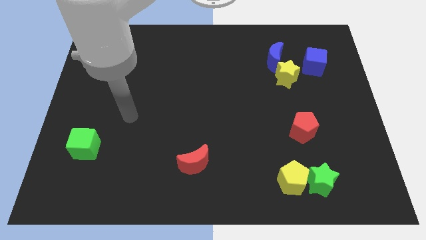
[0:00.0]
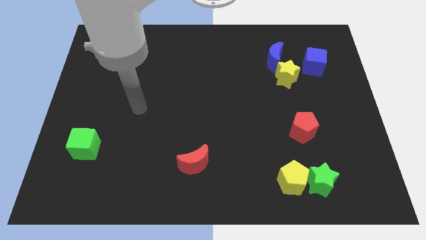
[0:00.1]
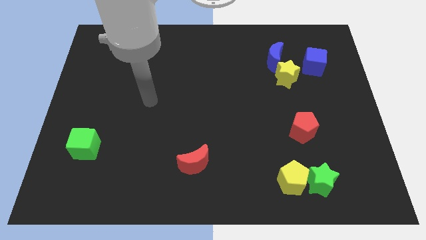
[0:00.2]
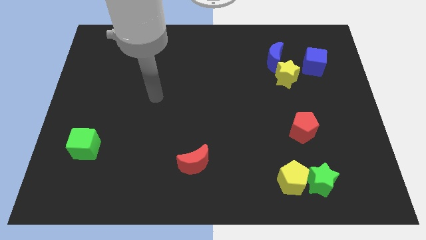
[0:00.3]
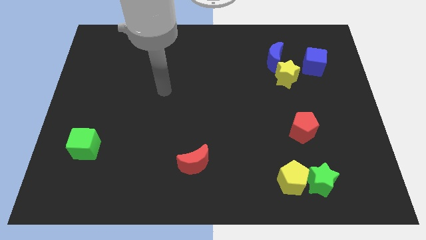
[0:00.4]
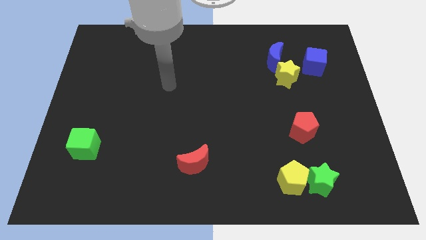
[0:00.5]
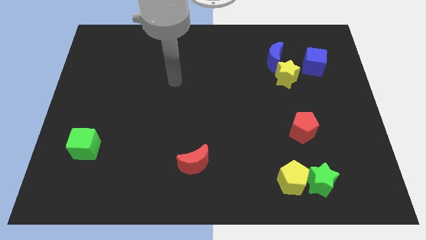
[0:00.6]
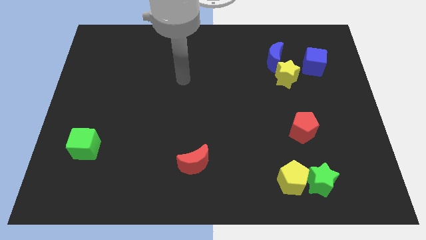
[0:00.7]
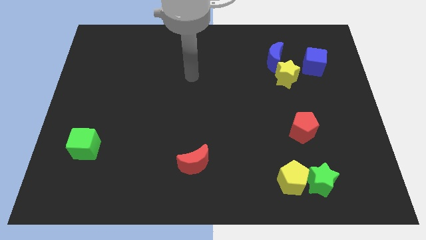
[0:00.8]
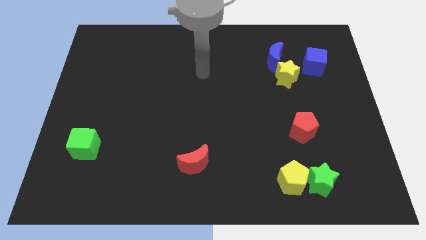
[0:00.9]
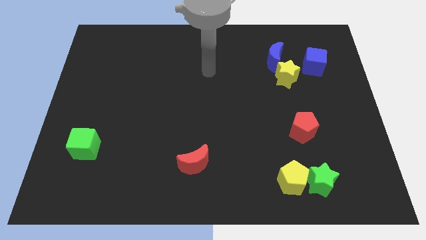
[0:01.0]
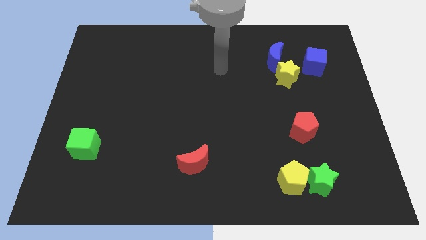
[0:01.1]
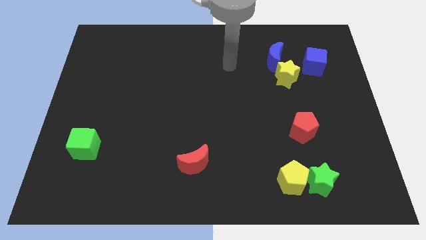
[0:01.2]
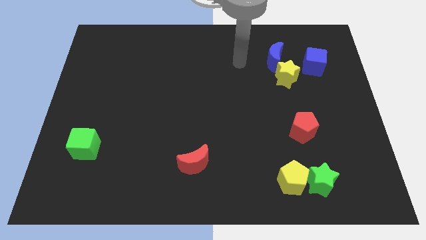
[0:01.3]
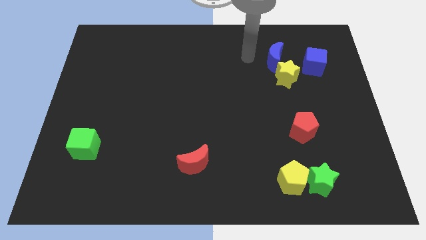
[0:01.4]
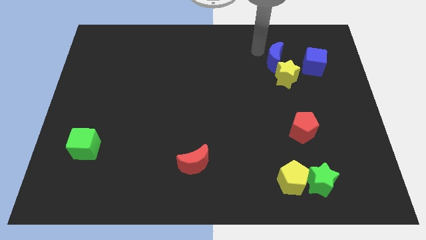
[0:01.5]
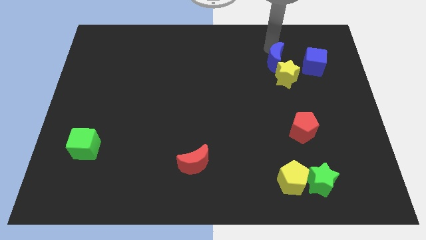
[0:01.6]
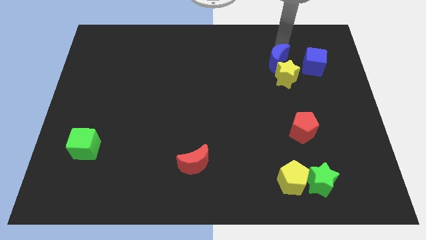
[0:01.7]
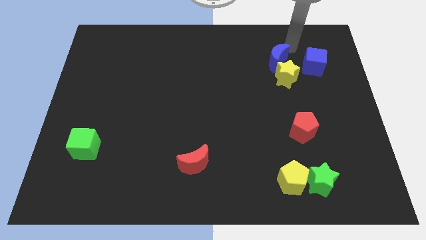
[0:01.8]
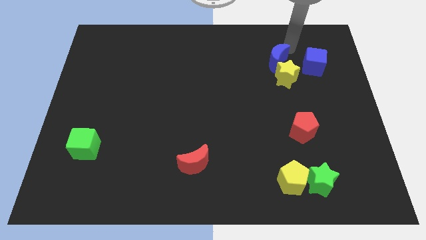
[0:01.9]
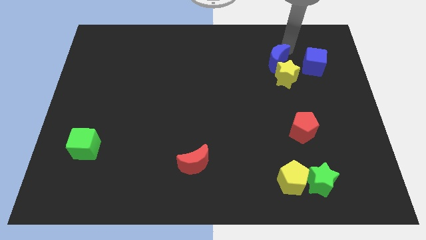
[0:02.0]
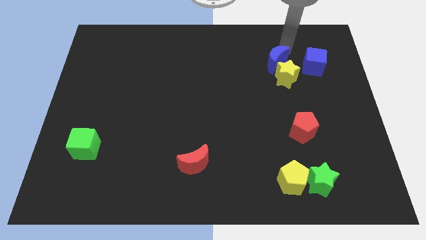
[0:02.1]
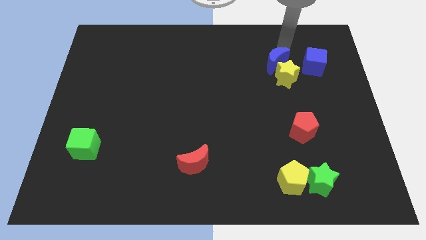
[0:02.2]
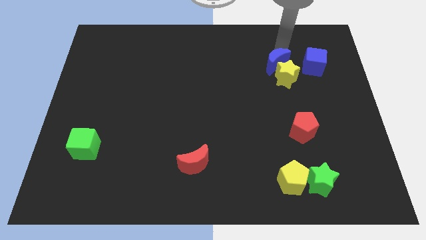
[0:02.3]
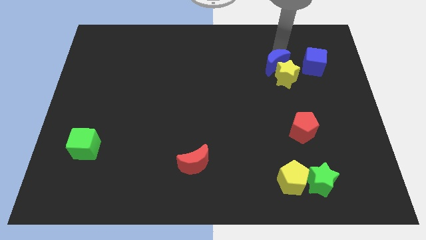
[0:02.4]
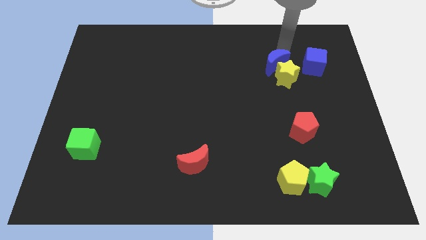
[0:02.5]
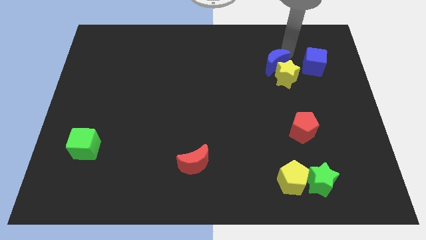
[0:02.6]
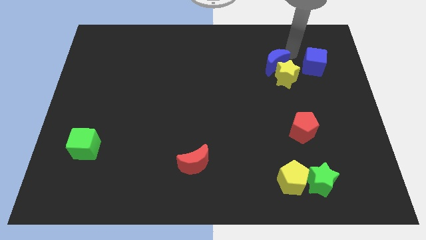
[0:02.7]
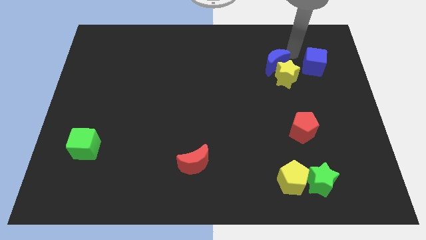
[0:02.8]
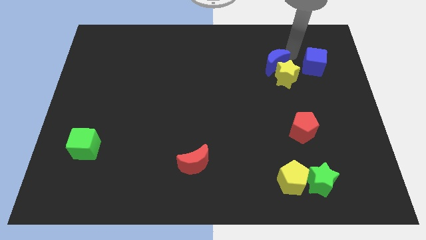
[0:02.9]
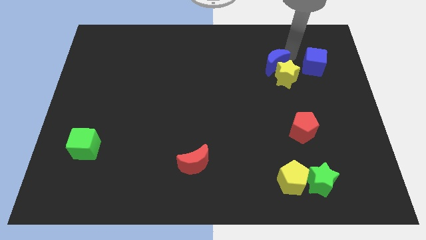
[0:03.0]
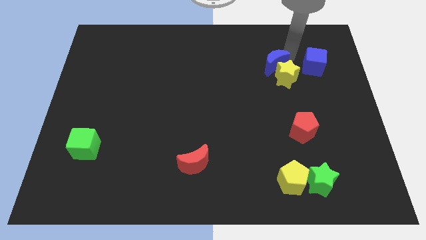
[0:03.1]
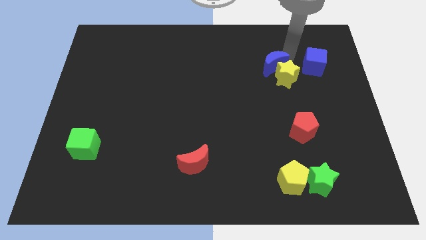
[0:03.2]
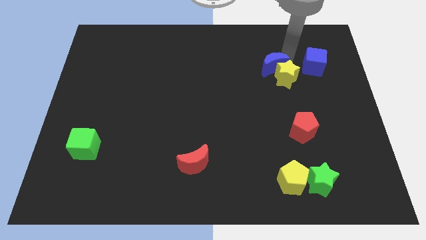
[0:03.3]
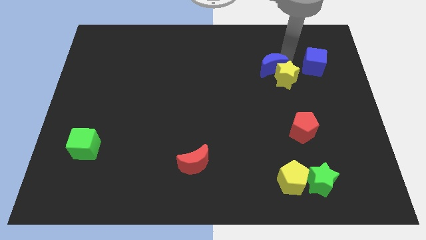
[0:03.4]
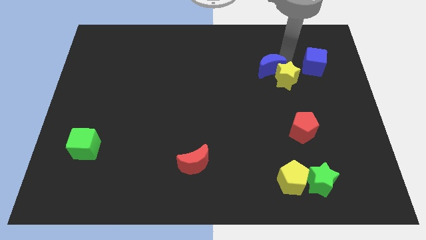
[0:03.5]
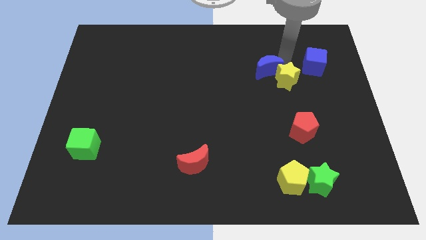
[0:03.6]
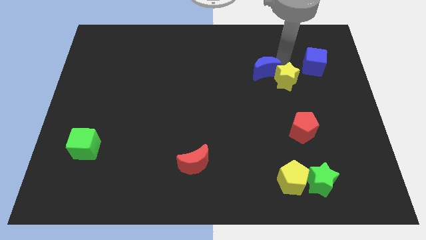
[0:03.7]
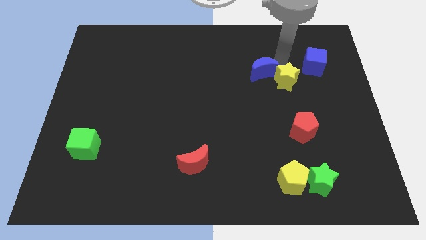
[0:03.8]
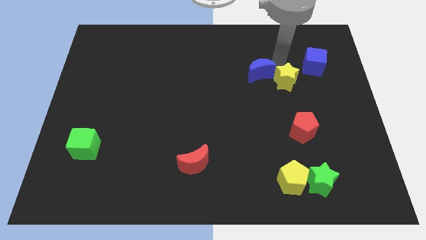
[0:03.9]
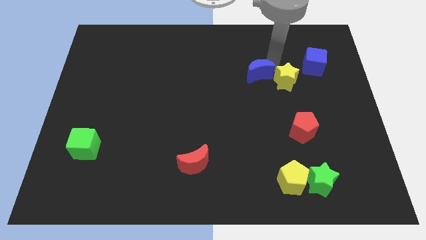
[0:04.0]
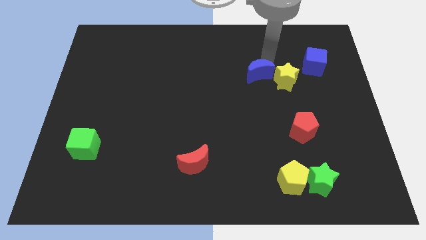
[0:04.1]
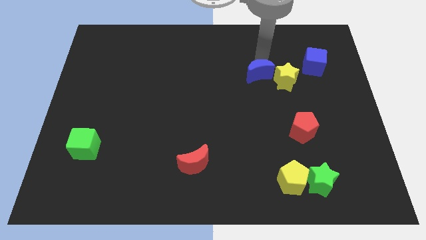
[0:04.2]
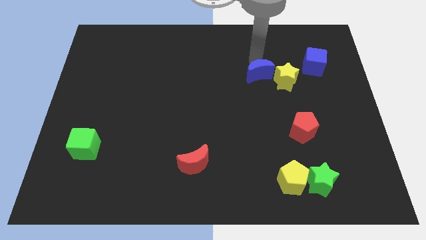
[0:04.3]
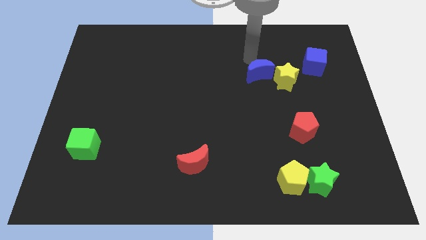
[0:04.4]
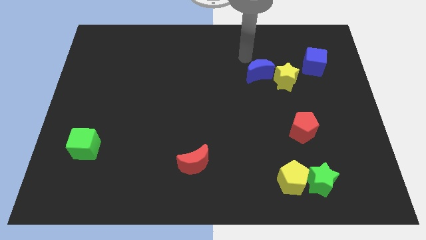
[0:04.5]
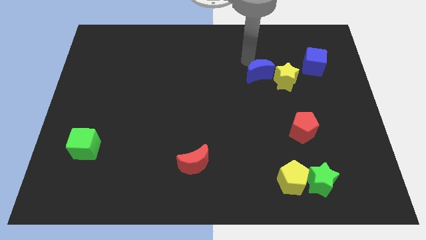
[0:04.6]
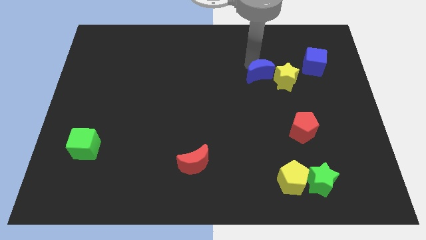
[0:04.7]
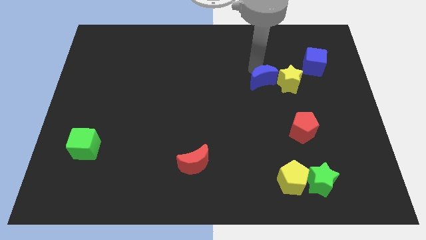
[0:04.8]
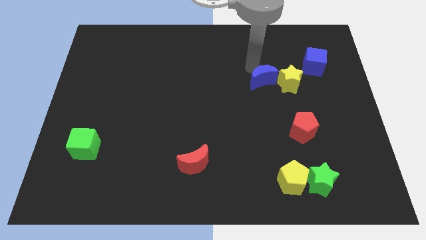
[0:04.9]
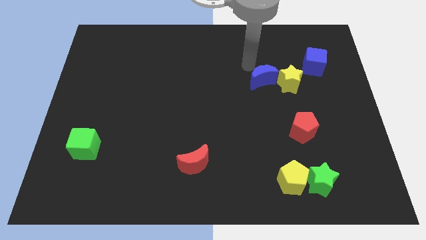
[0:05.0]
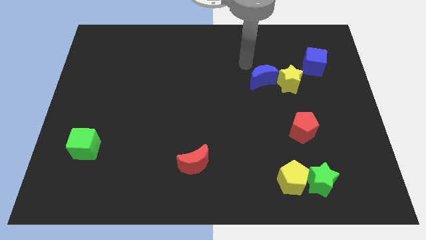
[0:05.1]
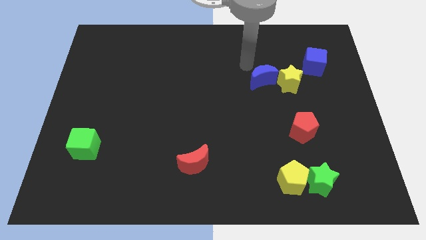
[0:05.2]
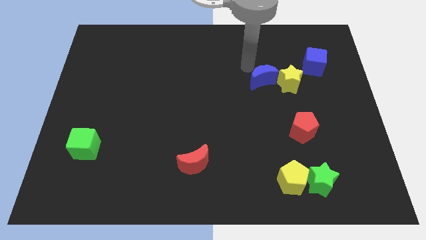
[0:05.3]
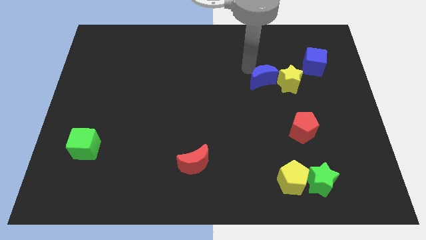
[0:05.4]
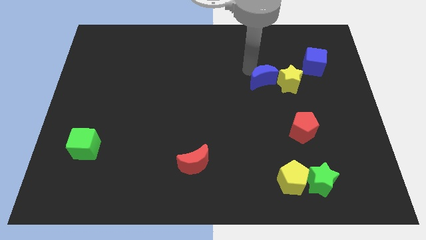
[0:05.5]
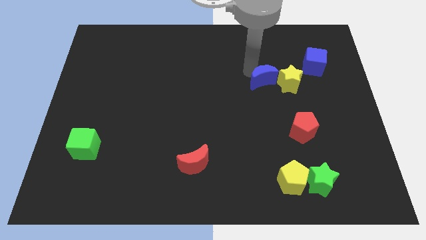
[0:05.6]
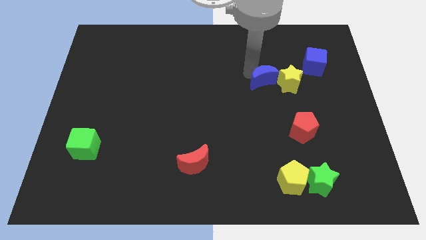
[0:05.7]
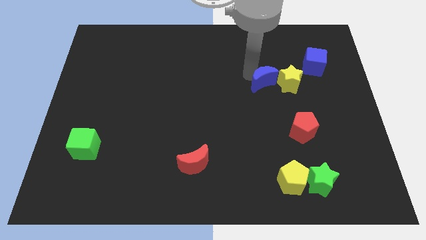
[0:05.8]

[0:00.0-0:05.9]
slide the blue moon downwards slightly

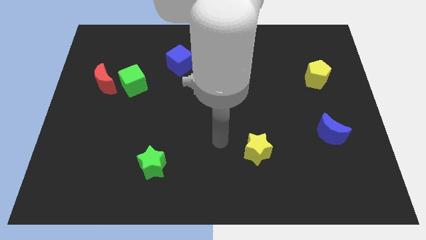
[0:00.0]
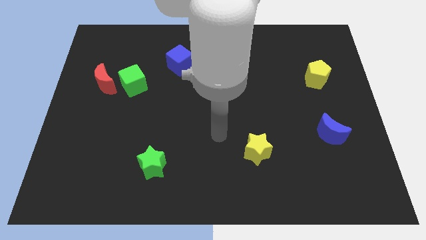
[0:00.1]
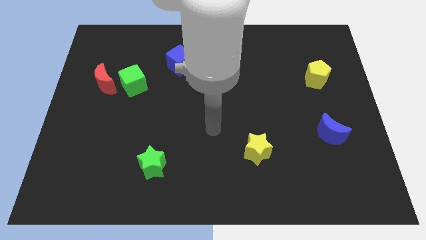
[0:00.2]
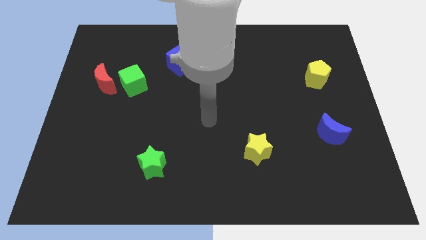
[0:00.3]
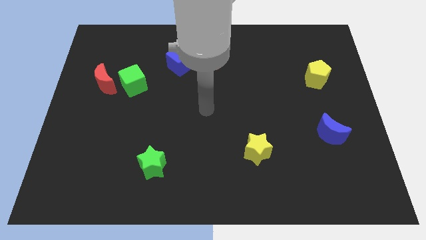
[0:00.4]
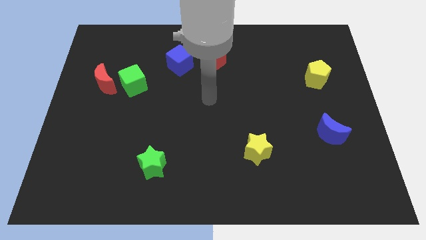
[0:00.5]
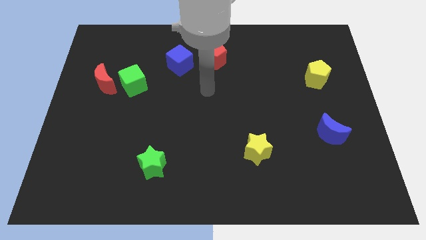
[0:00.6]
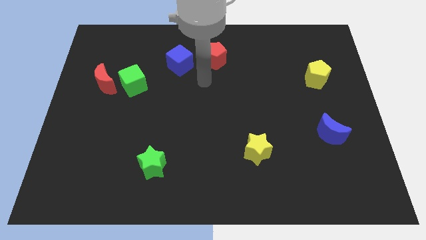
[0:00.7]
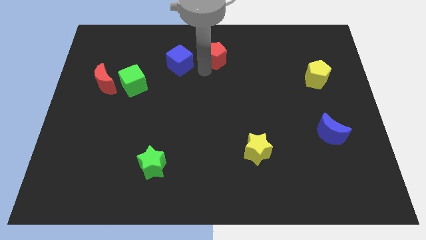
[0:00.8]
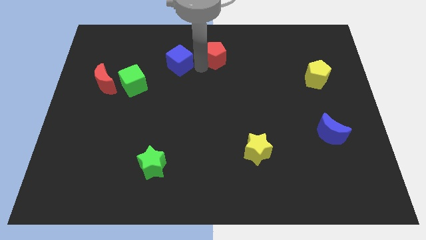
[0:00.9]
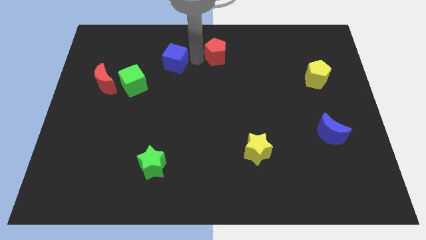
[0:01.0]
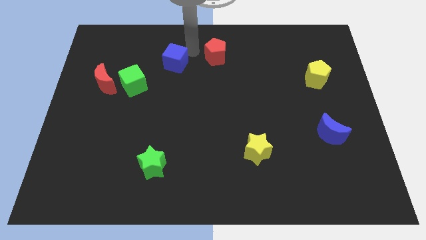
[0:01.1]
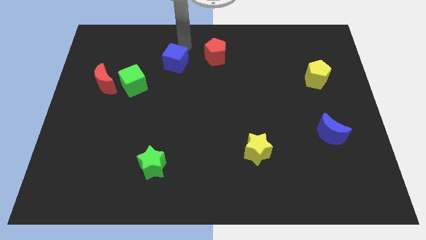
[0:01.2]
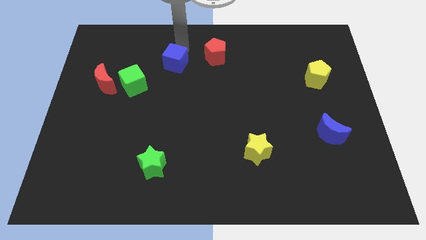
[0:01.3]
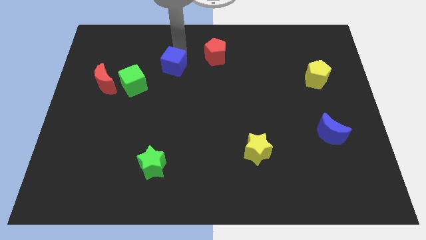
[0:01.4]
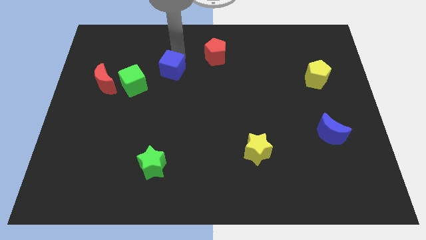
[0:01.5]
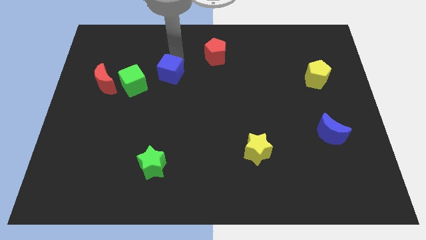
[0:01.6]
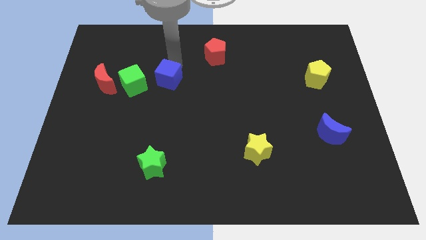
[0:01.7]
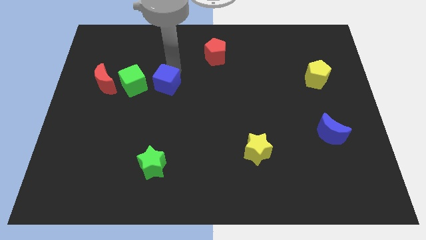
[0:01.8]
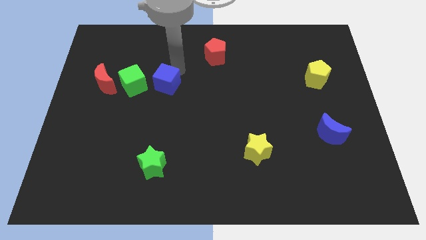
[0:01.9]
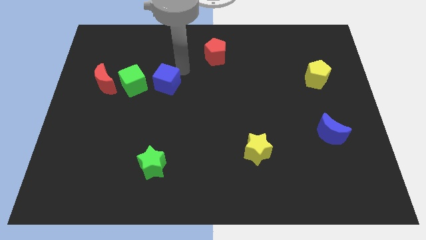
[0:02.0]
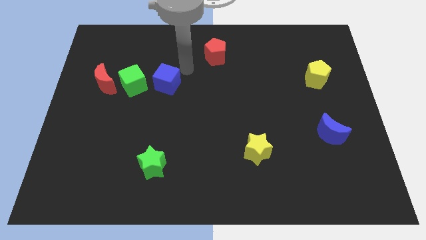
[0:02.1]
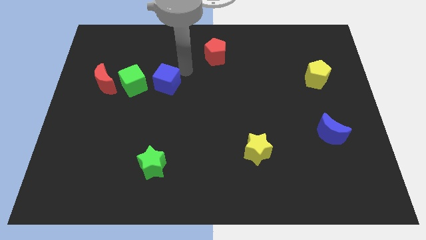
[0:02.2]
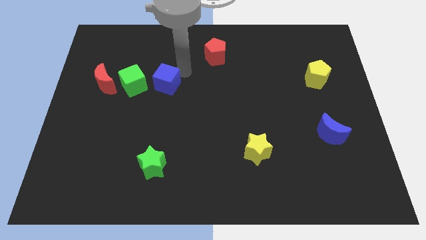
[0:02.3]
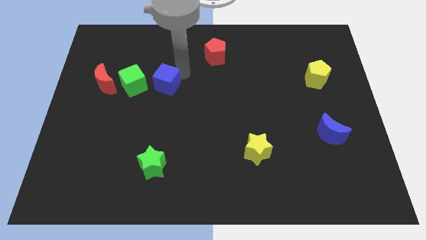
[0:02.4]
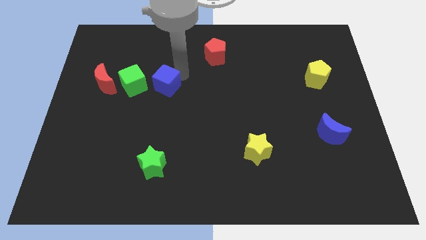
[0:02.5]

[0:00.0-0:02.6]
push the blue cube slightly diagonally downwards and to the left
